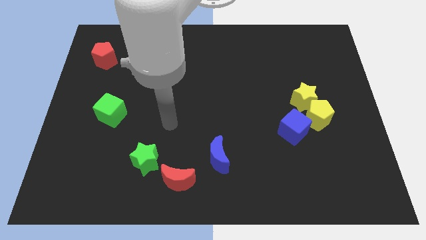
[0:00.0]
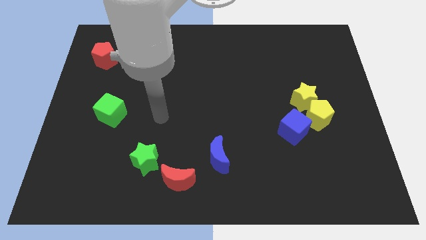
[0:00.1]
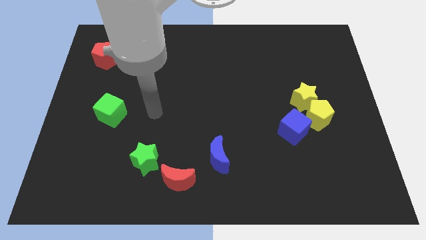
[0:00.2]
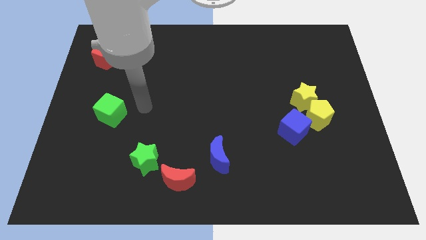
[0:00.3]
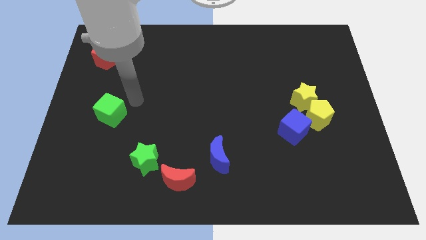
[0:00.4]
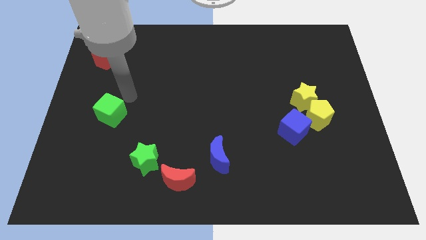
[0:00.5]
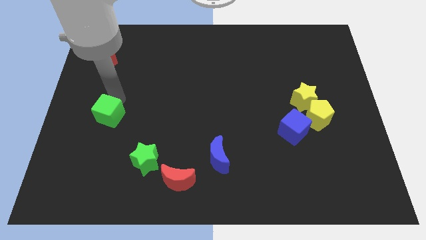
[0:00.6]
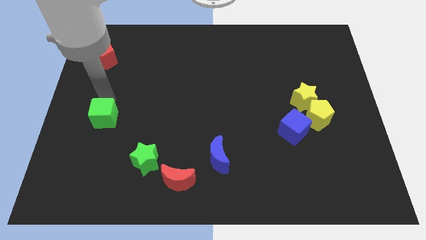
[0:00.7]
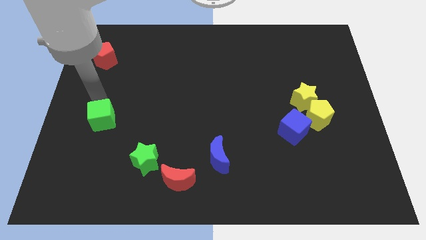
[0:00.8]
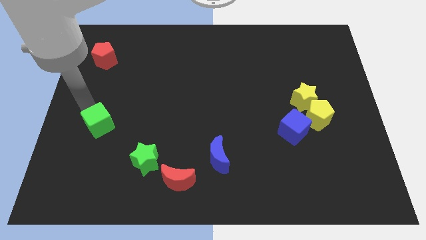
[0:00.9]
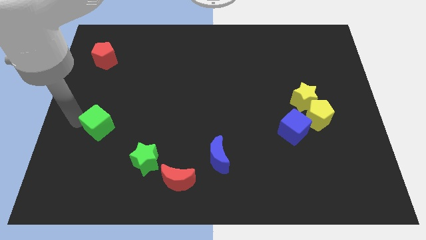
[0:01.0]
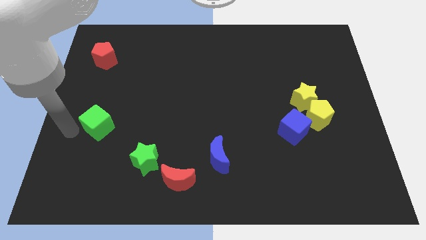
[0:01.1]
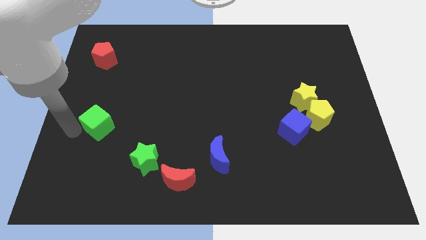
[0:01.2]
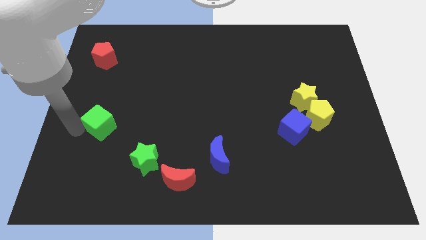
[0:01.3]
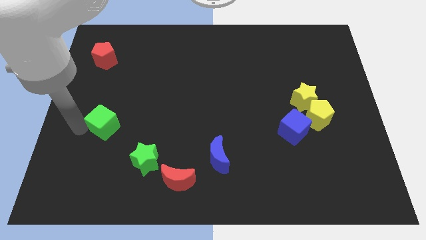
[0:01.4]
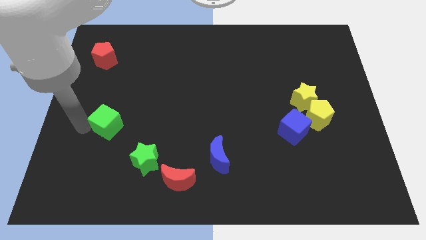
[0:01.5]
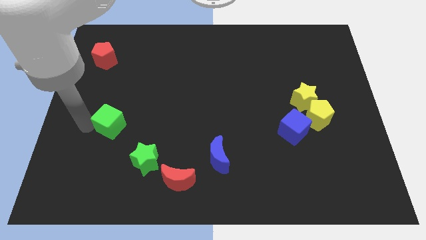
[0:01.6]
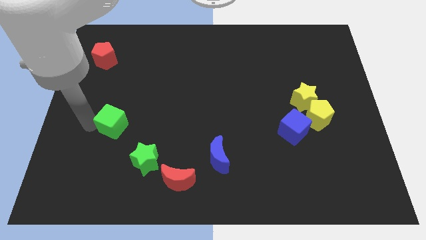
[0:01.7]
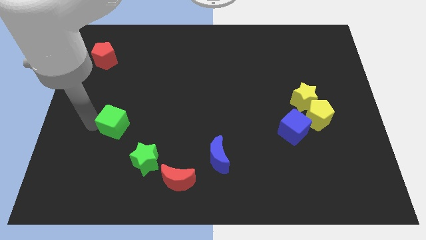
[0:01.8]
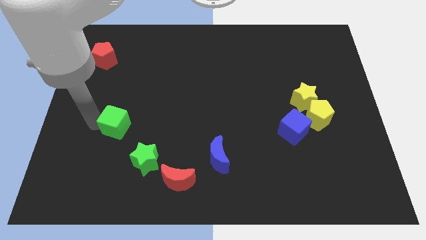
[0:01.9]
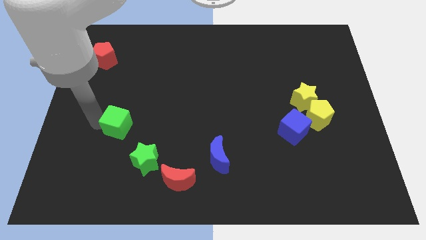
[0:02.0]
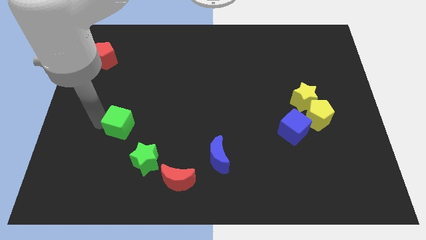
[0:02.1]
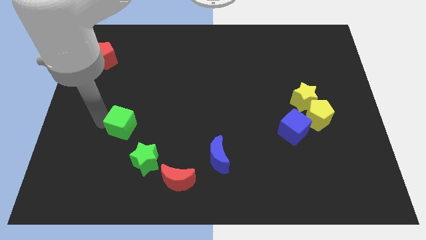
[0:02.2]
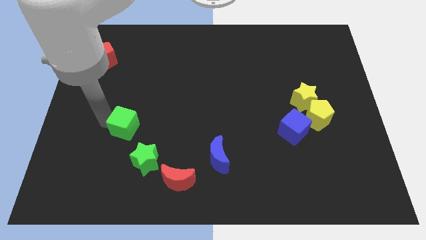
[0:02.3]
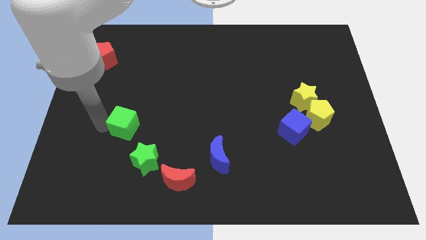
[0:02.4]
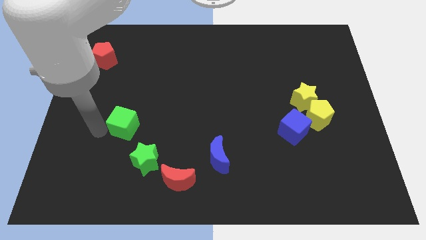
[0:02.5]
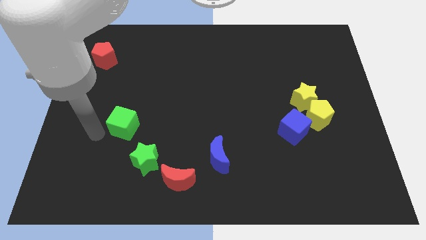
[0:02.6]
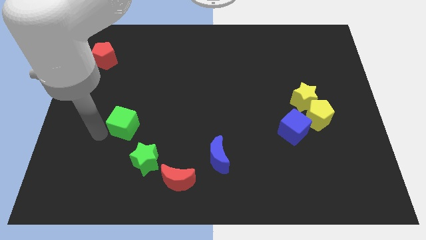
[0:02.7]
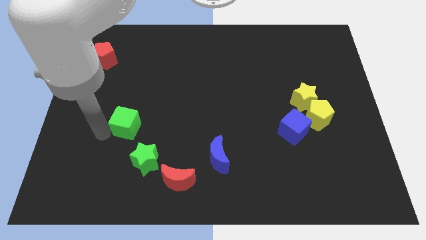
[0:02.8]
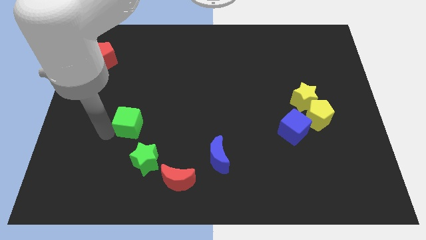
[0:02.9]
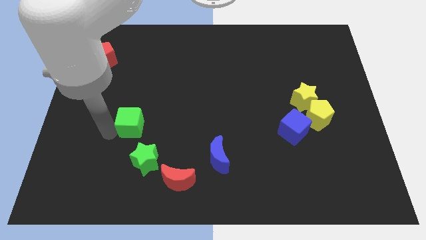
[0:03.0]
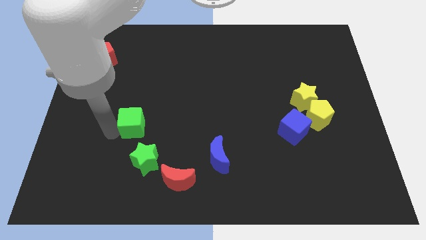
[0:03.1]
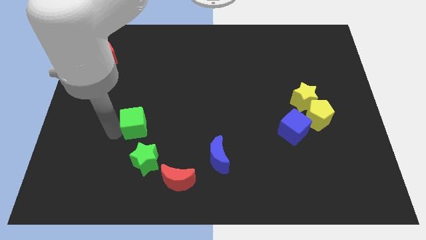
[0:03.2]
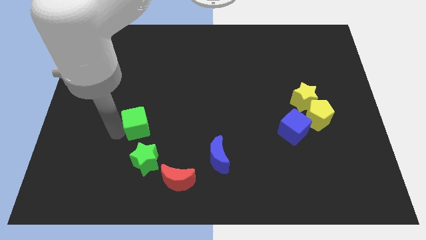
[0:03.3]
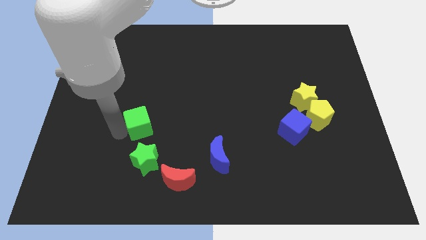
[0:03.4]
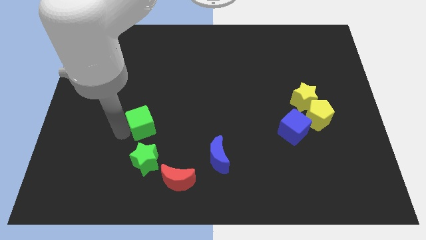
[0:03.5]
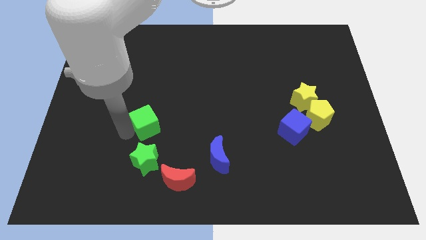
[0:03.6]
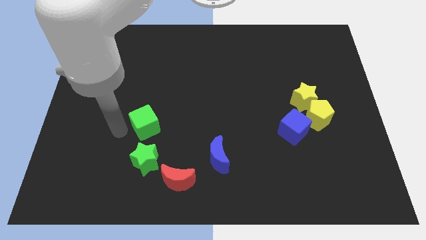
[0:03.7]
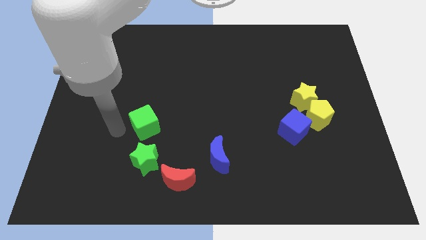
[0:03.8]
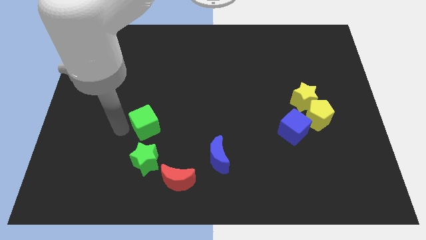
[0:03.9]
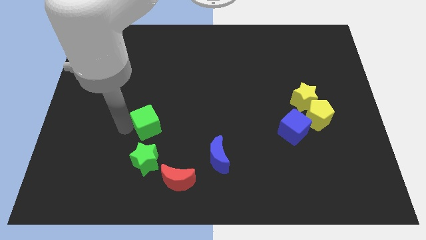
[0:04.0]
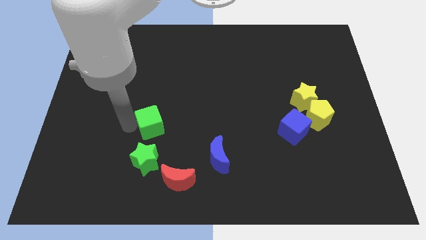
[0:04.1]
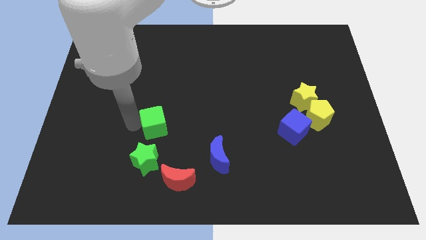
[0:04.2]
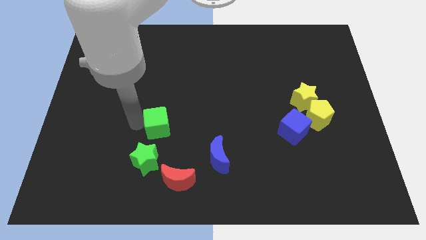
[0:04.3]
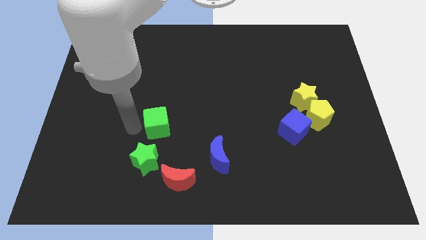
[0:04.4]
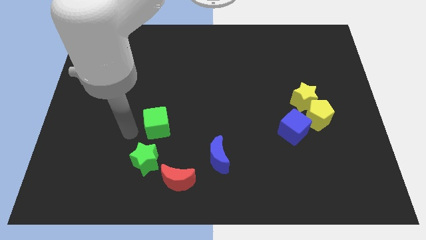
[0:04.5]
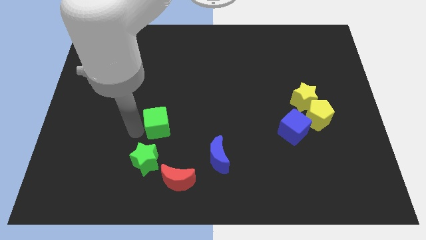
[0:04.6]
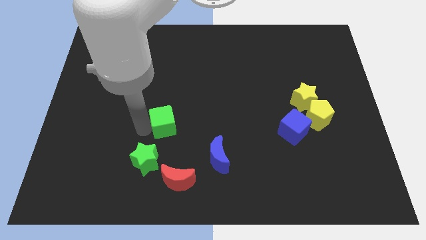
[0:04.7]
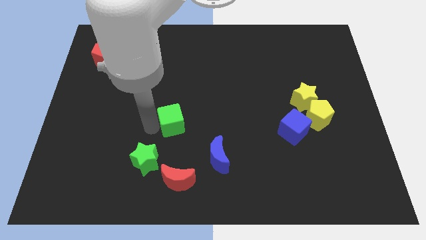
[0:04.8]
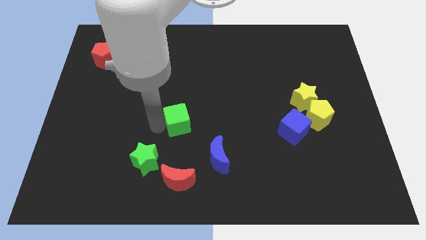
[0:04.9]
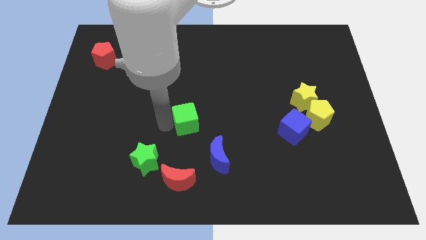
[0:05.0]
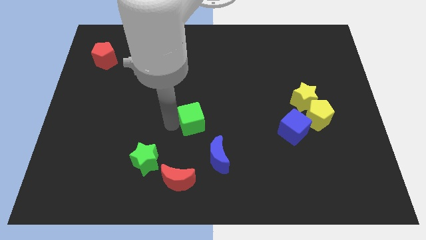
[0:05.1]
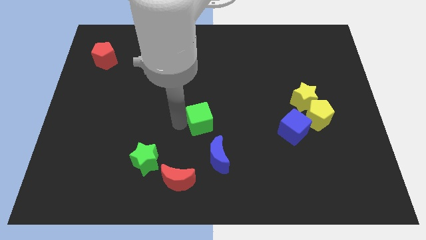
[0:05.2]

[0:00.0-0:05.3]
push the green cube right

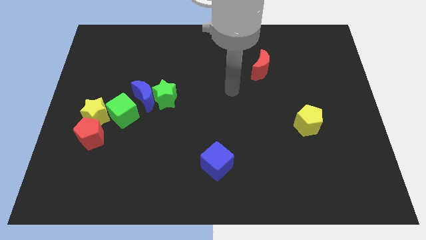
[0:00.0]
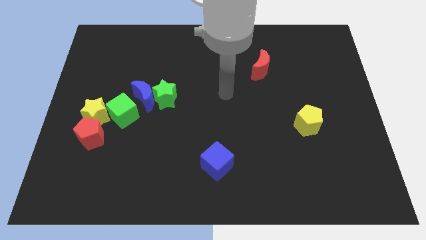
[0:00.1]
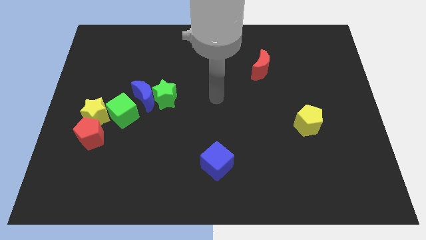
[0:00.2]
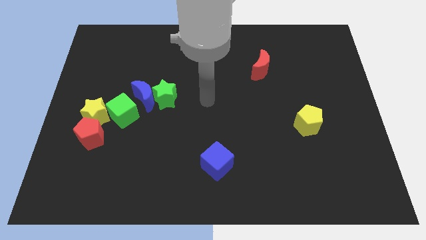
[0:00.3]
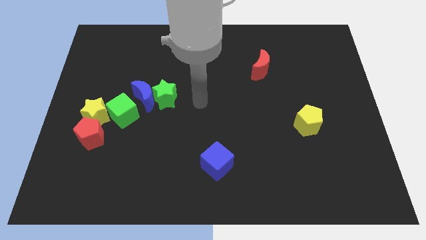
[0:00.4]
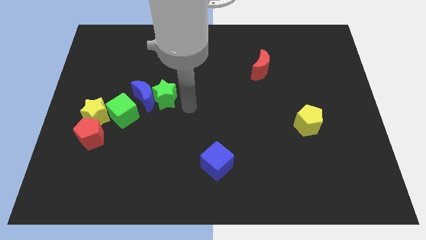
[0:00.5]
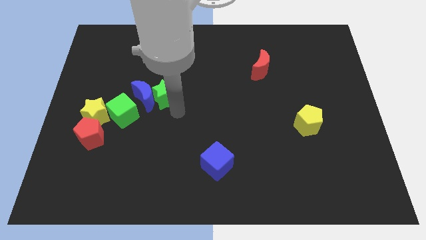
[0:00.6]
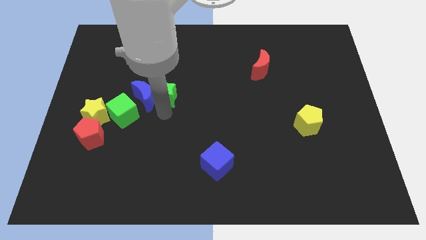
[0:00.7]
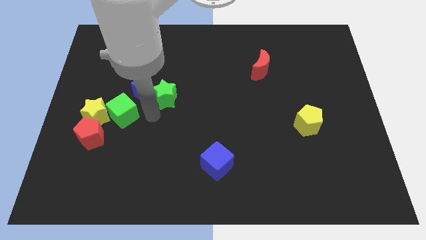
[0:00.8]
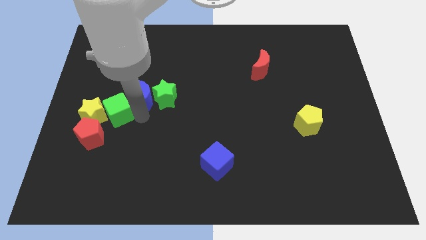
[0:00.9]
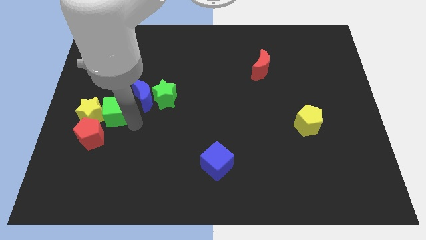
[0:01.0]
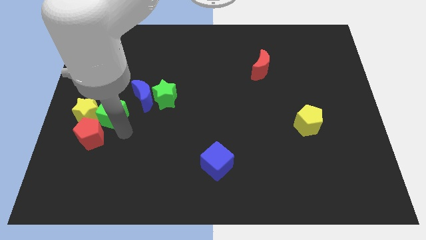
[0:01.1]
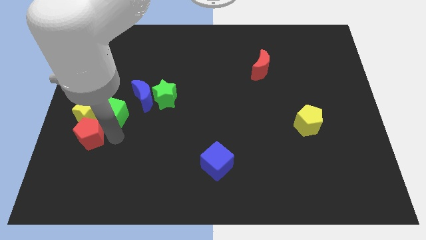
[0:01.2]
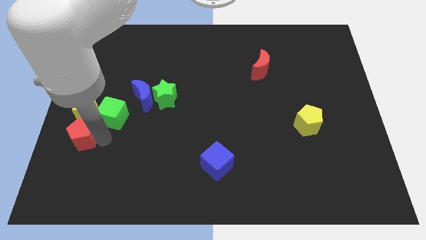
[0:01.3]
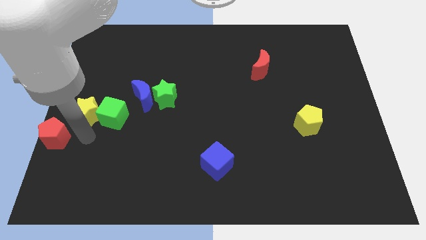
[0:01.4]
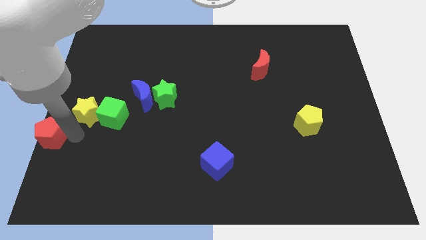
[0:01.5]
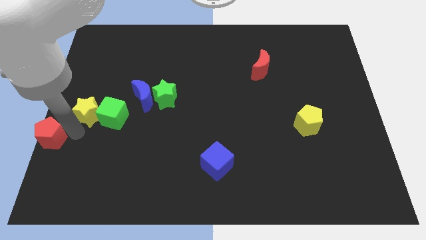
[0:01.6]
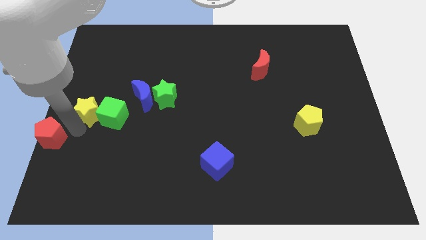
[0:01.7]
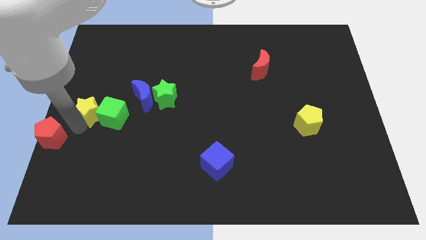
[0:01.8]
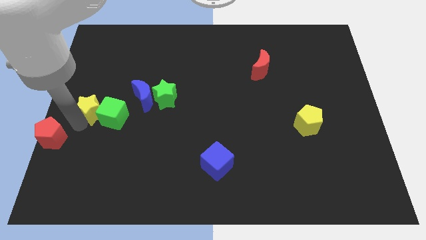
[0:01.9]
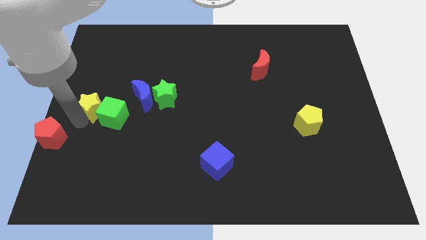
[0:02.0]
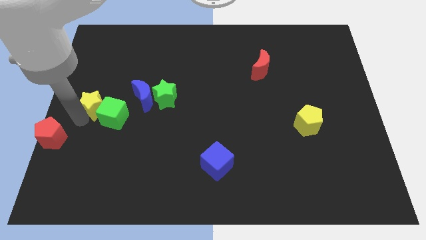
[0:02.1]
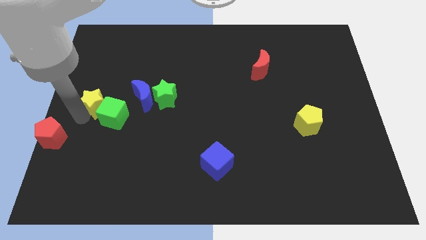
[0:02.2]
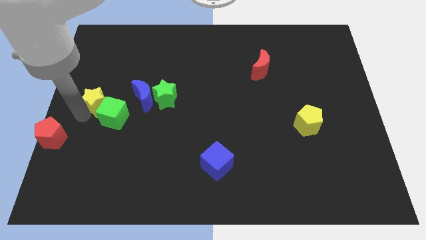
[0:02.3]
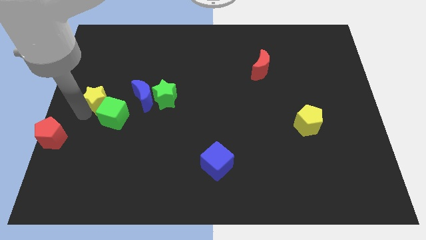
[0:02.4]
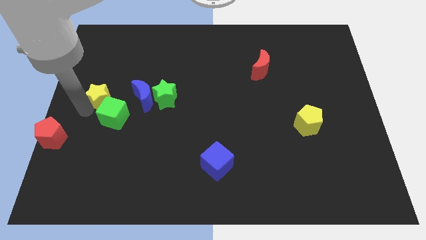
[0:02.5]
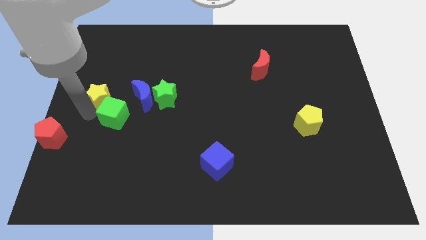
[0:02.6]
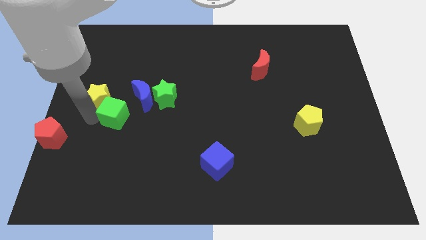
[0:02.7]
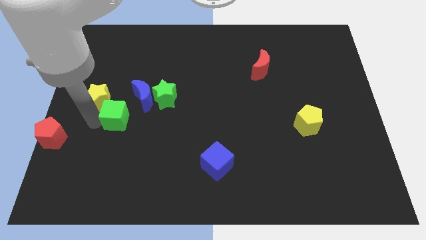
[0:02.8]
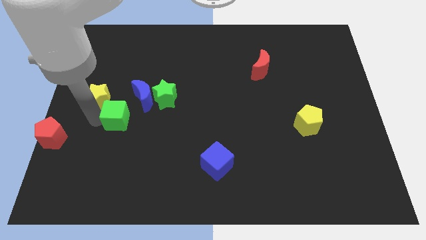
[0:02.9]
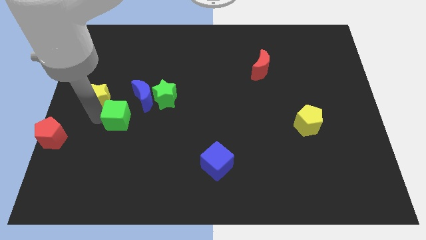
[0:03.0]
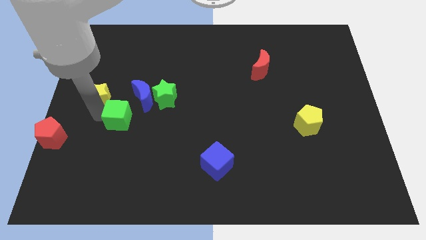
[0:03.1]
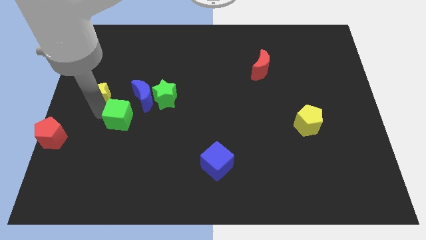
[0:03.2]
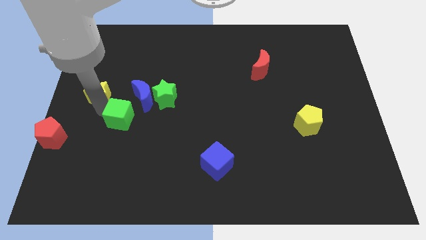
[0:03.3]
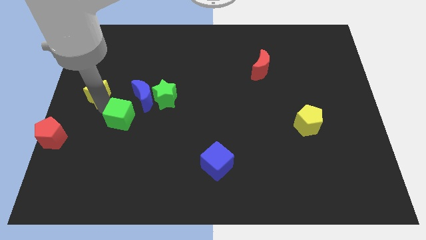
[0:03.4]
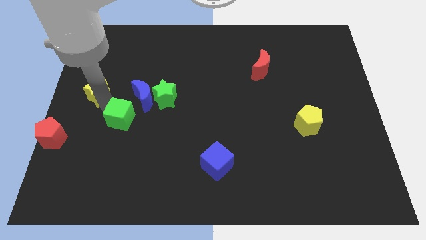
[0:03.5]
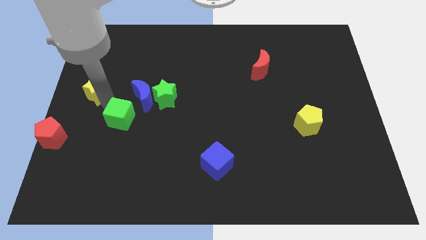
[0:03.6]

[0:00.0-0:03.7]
push the yellow star a bit upwards
